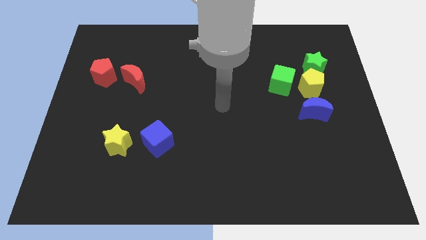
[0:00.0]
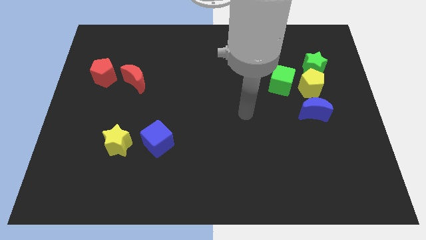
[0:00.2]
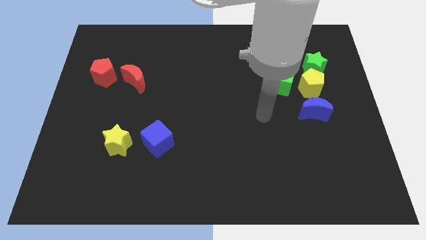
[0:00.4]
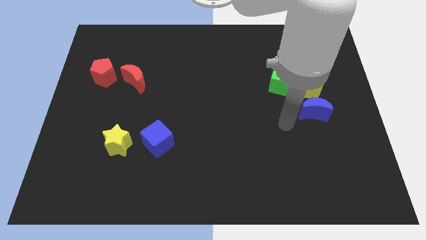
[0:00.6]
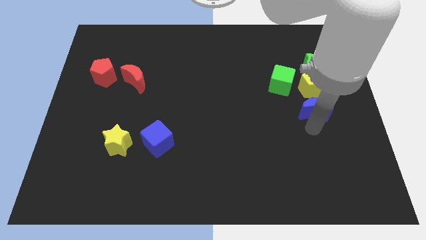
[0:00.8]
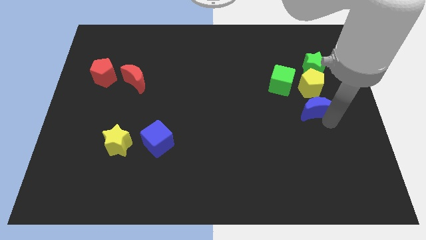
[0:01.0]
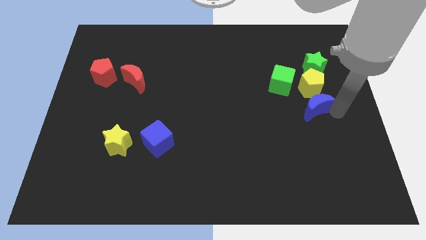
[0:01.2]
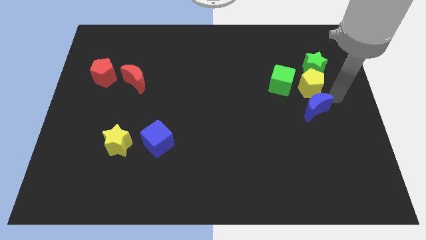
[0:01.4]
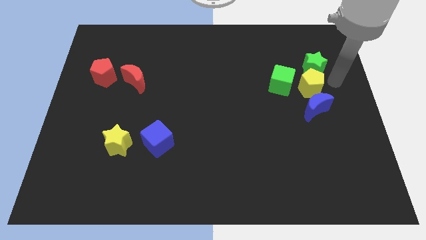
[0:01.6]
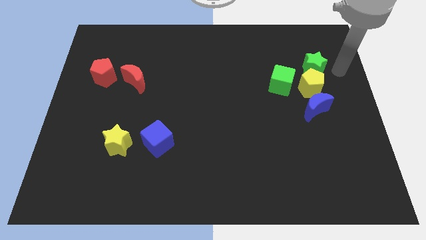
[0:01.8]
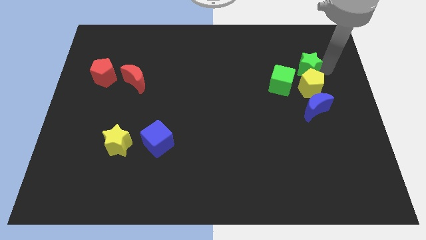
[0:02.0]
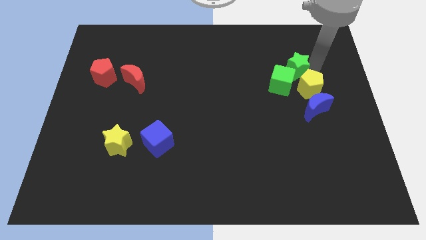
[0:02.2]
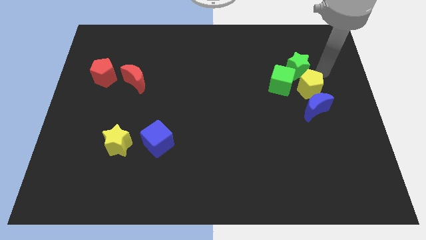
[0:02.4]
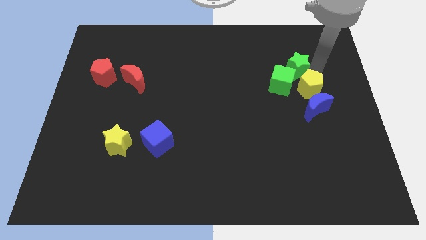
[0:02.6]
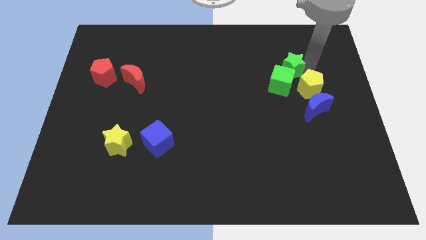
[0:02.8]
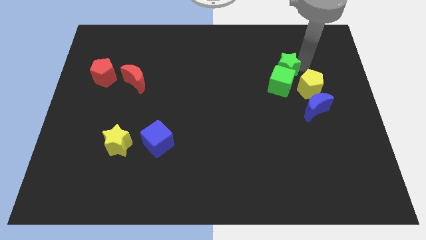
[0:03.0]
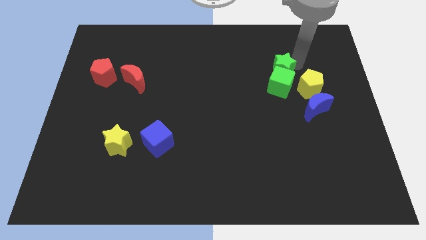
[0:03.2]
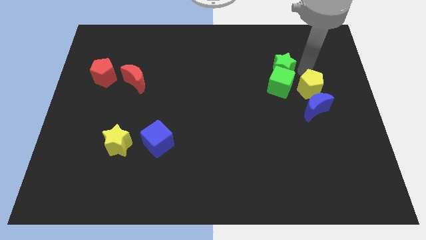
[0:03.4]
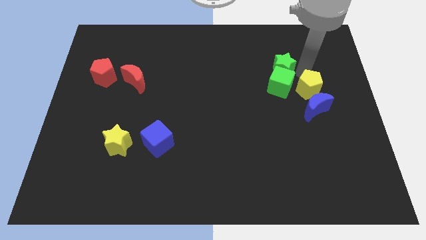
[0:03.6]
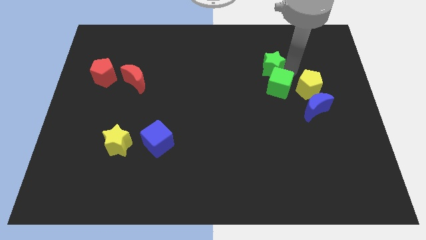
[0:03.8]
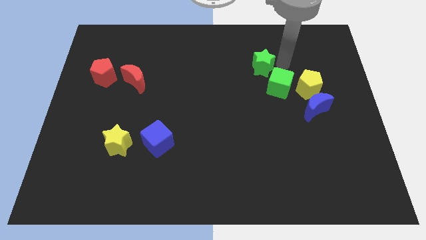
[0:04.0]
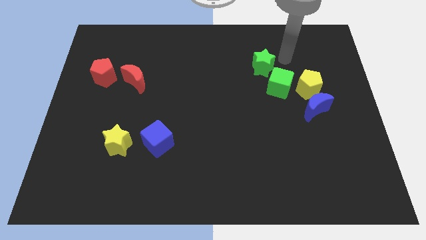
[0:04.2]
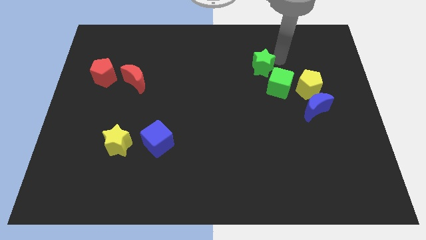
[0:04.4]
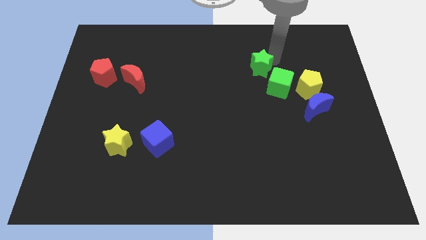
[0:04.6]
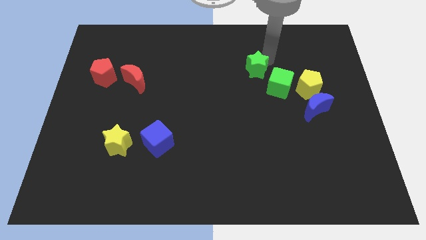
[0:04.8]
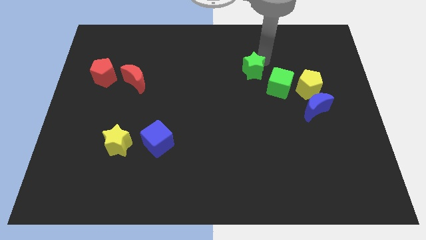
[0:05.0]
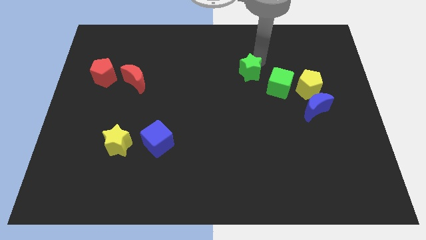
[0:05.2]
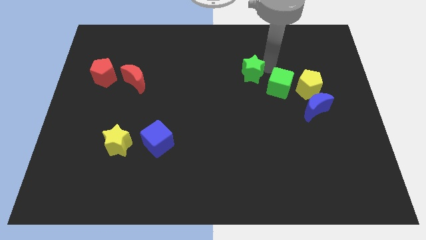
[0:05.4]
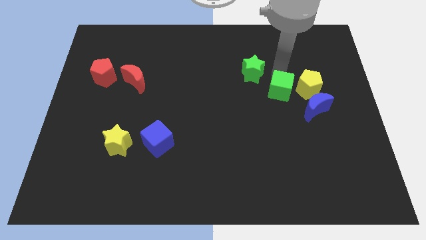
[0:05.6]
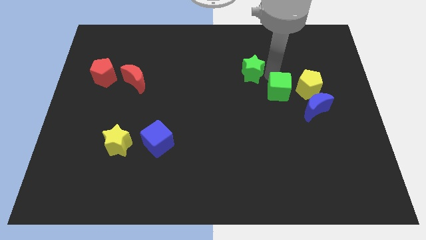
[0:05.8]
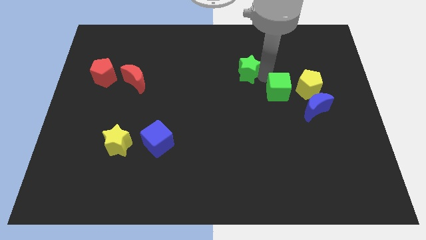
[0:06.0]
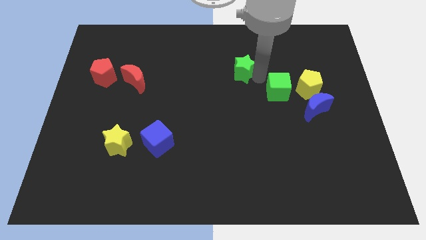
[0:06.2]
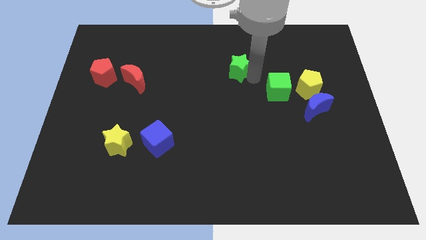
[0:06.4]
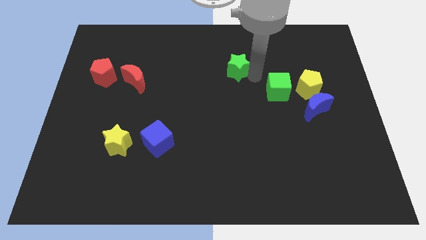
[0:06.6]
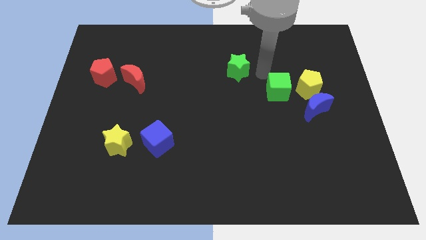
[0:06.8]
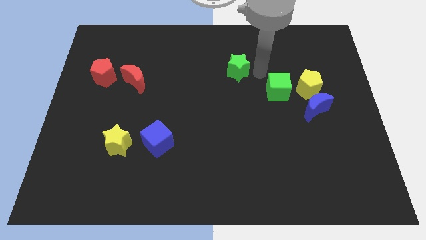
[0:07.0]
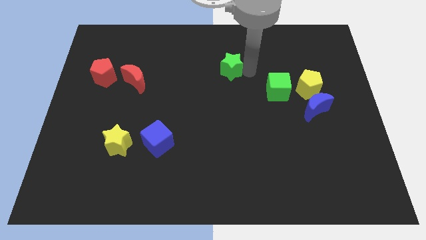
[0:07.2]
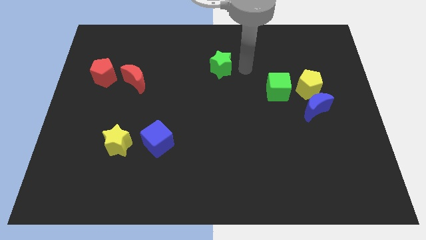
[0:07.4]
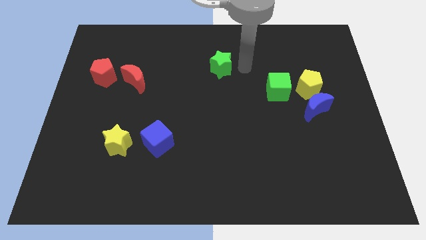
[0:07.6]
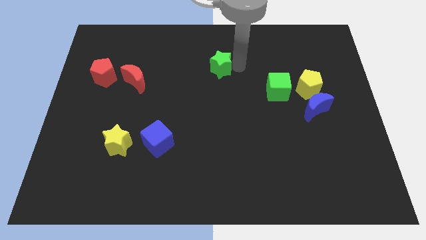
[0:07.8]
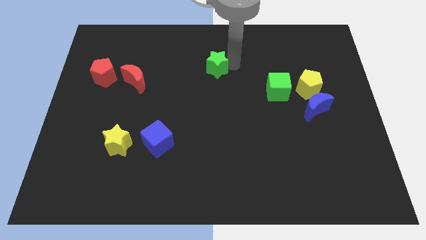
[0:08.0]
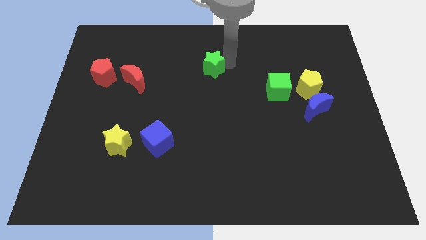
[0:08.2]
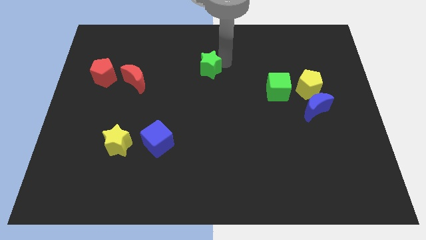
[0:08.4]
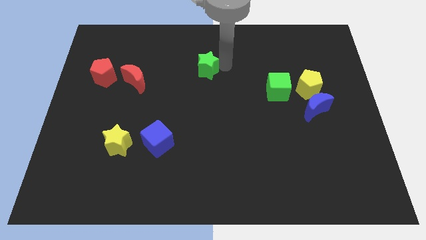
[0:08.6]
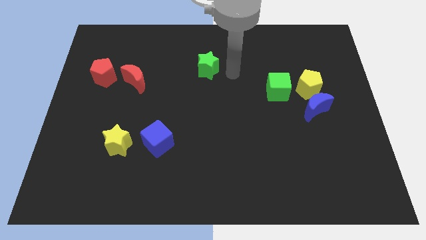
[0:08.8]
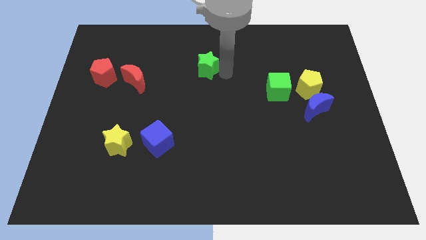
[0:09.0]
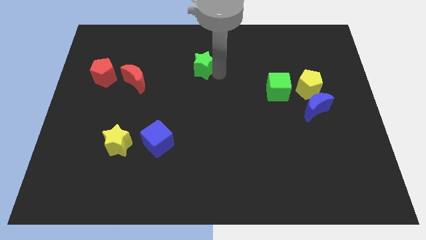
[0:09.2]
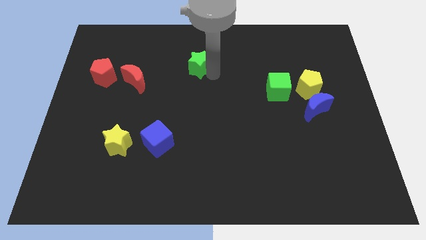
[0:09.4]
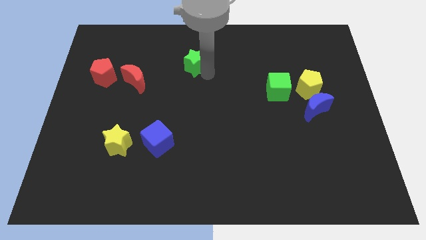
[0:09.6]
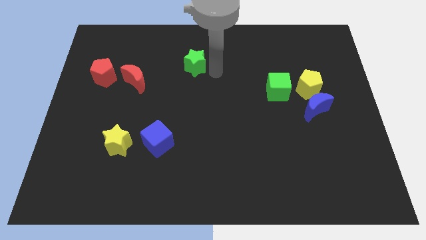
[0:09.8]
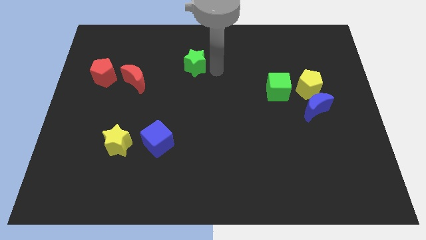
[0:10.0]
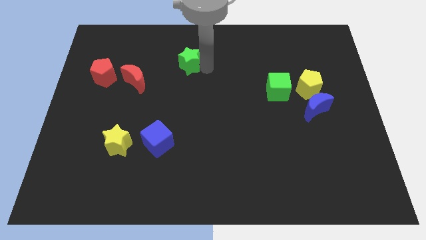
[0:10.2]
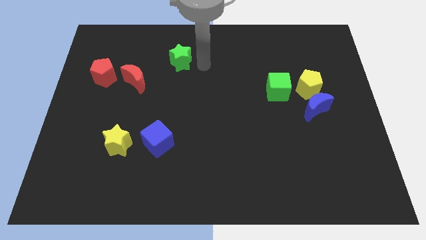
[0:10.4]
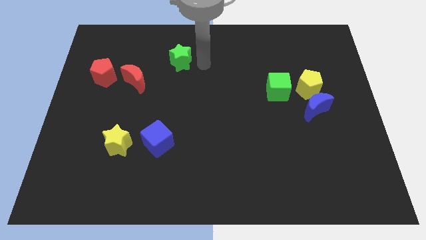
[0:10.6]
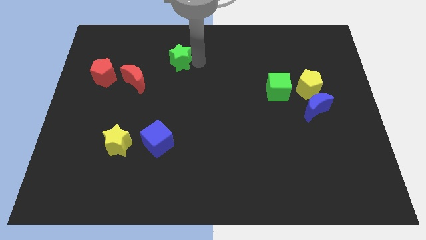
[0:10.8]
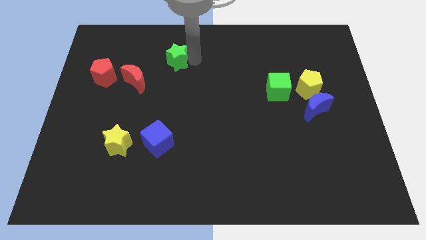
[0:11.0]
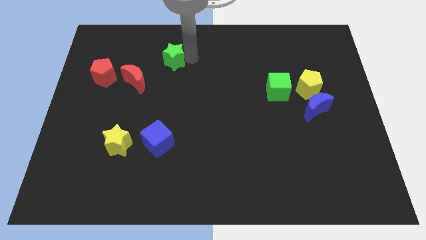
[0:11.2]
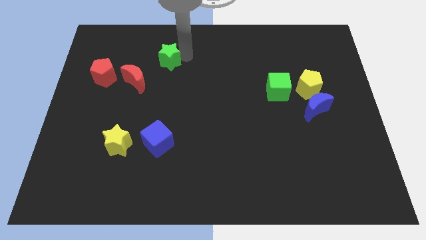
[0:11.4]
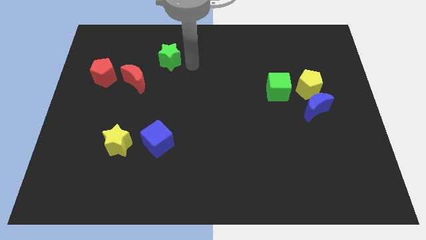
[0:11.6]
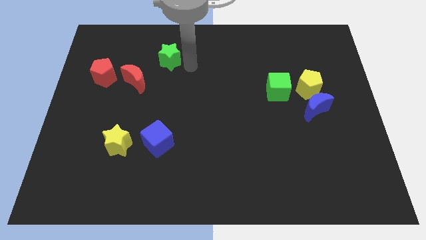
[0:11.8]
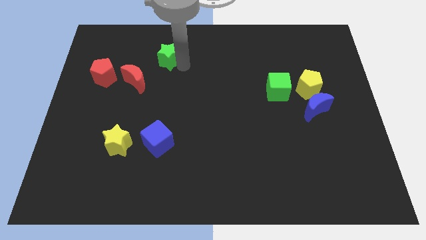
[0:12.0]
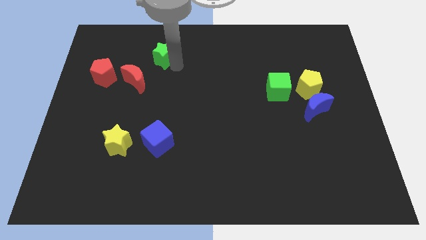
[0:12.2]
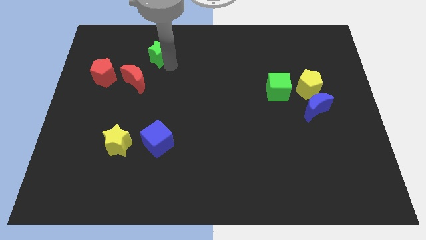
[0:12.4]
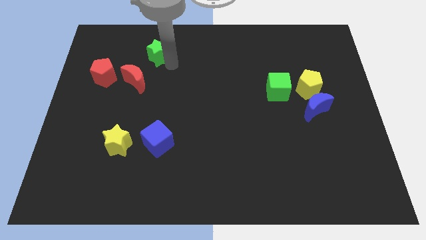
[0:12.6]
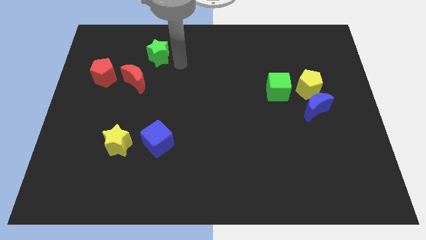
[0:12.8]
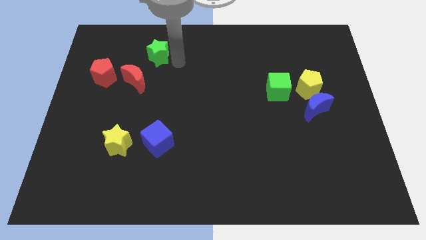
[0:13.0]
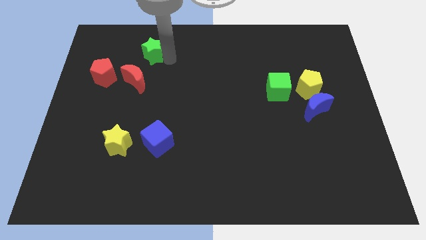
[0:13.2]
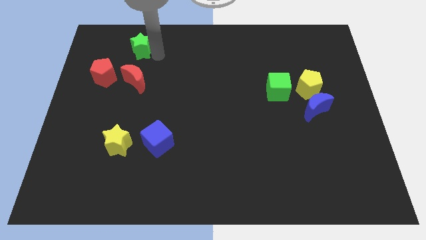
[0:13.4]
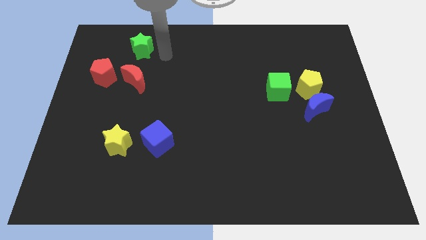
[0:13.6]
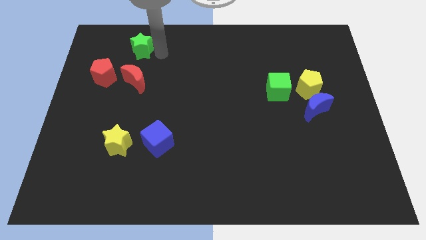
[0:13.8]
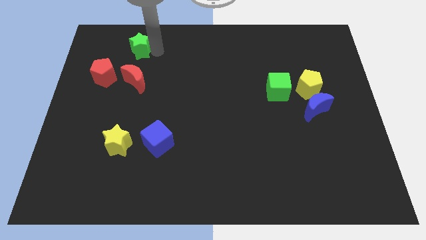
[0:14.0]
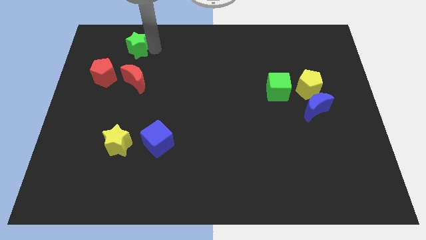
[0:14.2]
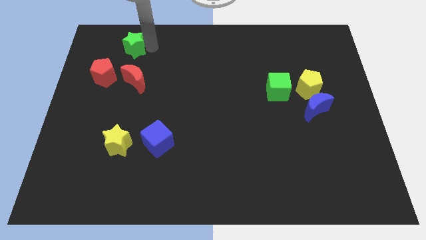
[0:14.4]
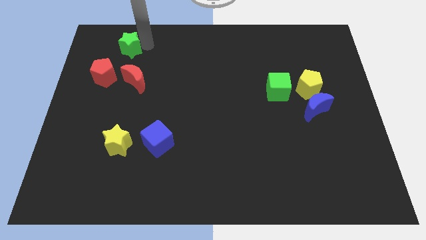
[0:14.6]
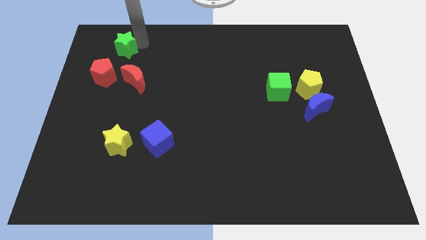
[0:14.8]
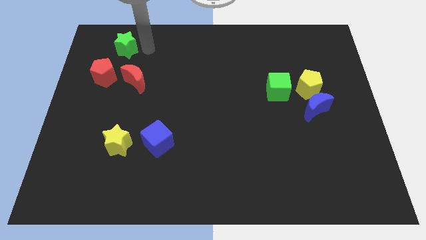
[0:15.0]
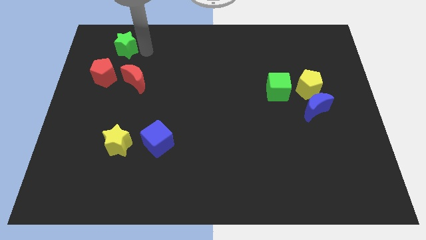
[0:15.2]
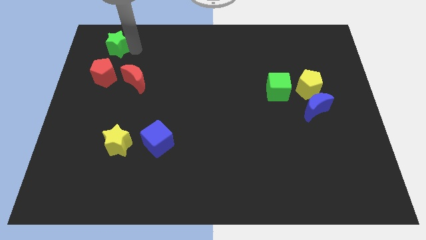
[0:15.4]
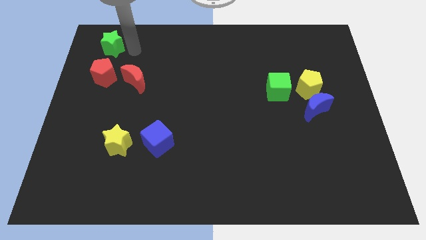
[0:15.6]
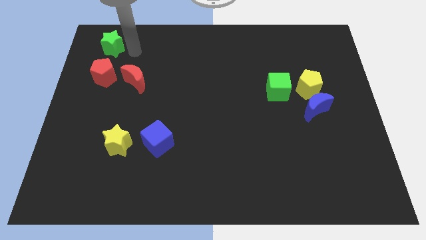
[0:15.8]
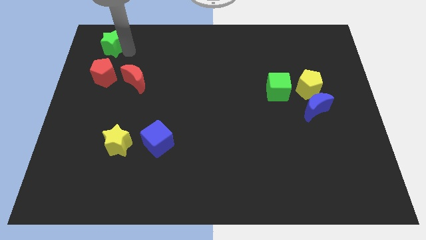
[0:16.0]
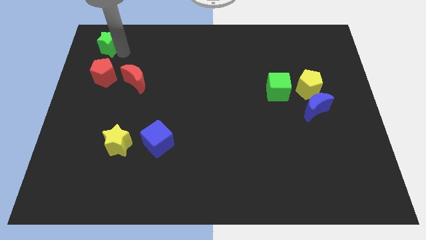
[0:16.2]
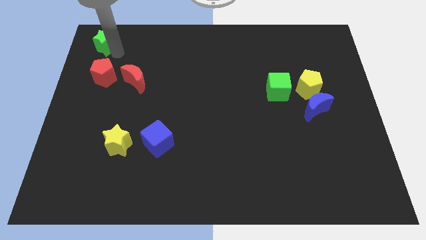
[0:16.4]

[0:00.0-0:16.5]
push the green star to the top left corner
